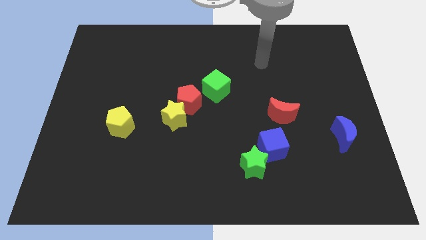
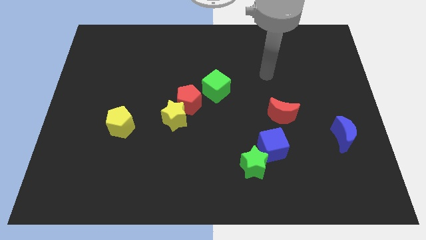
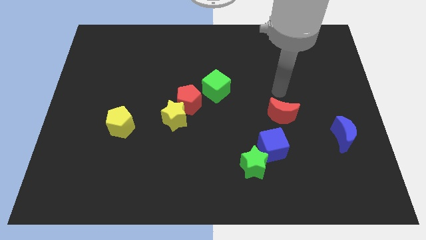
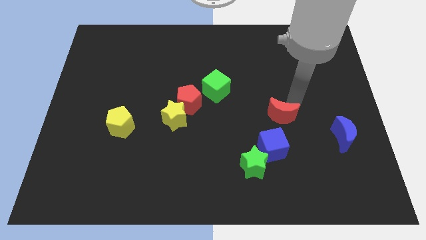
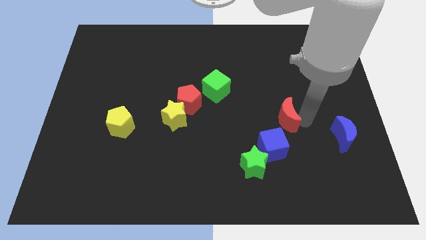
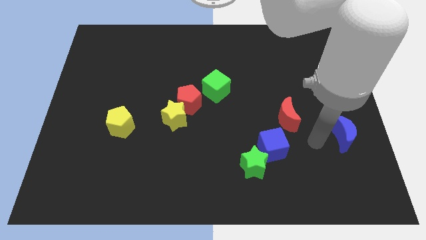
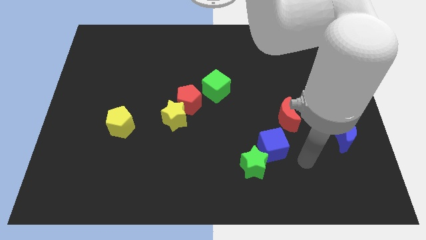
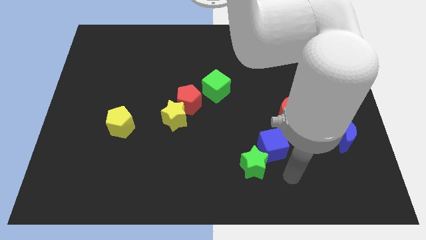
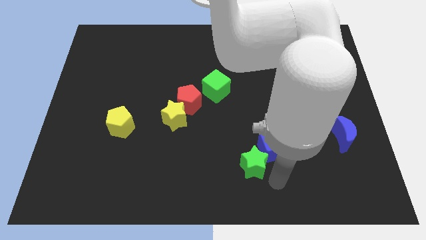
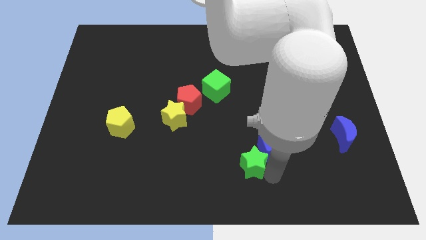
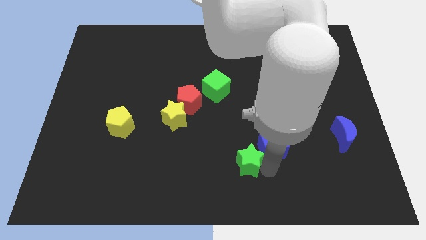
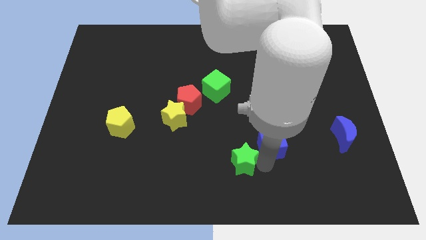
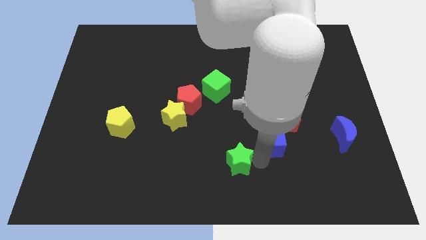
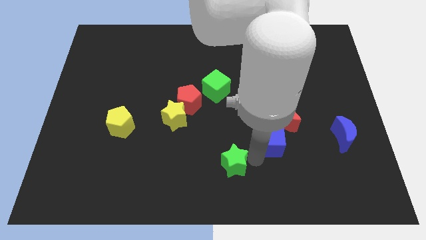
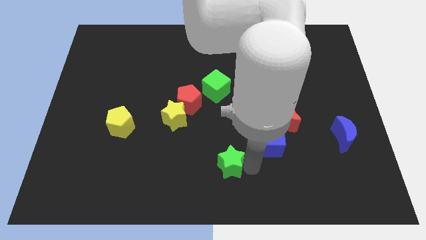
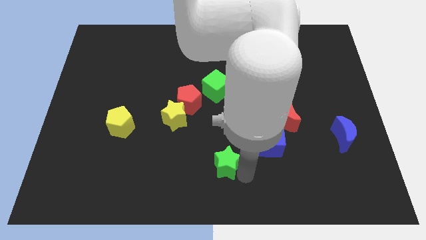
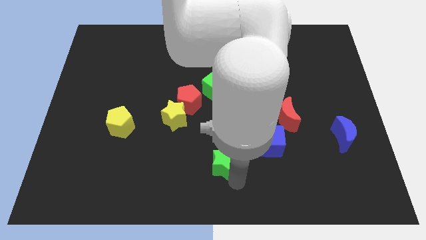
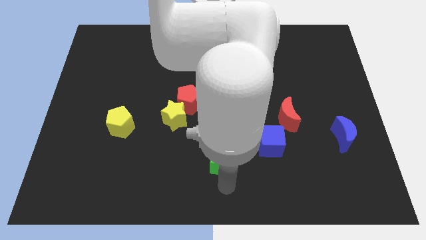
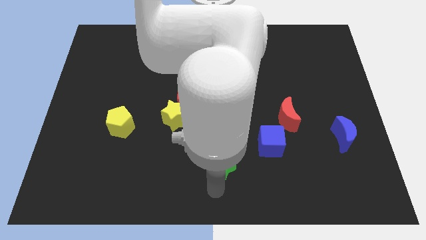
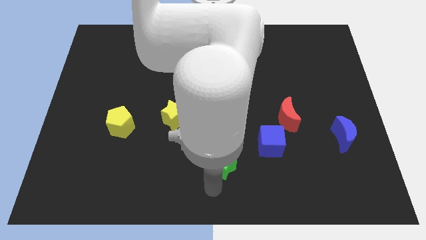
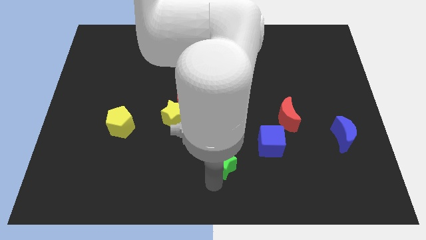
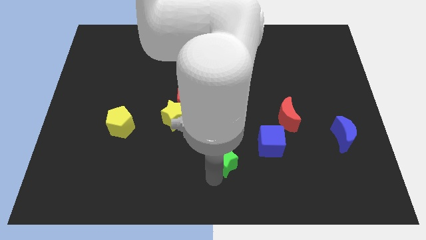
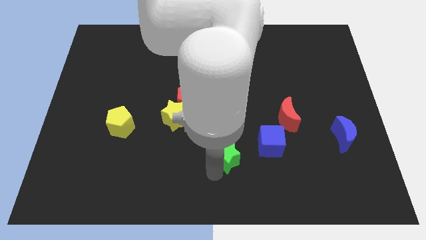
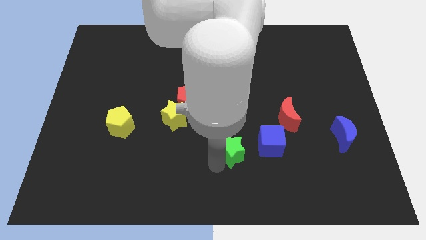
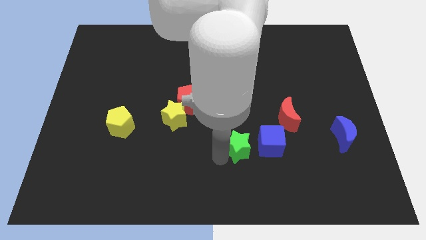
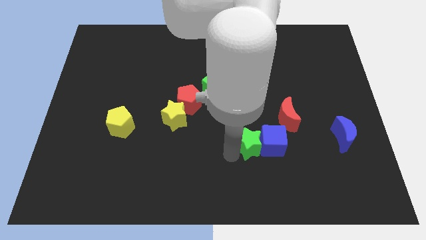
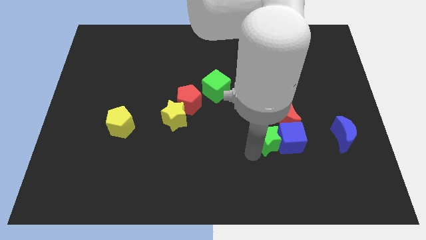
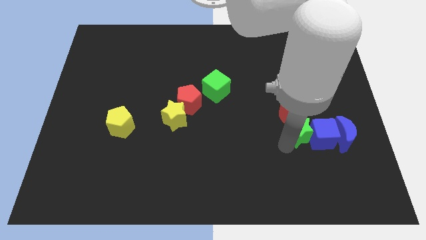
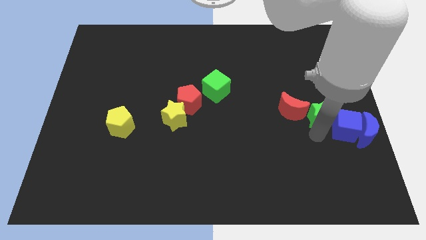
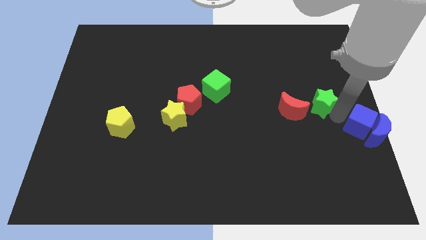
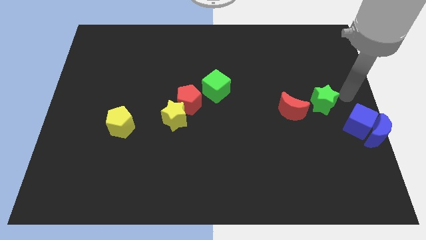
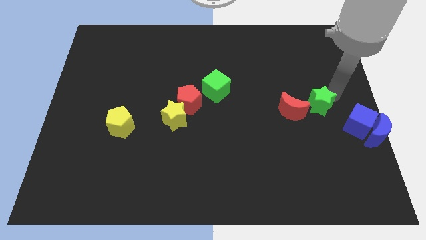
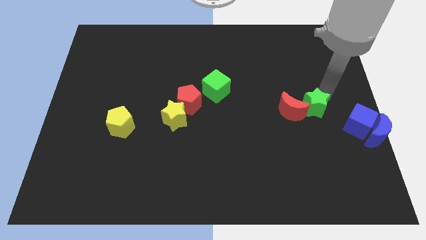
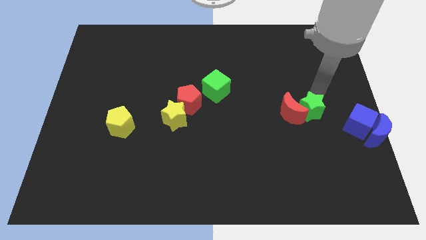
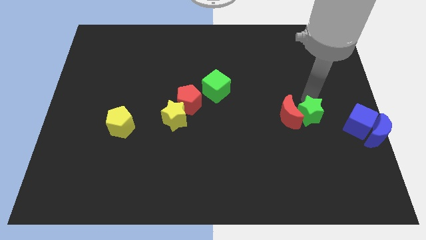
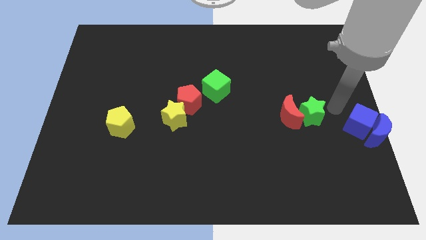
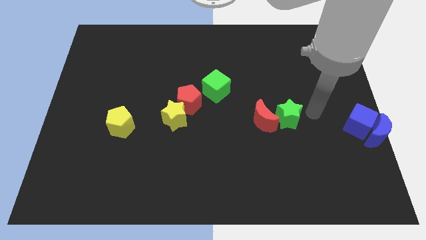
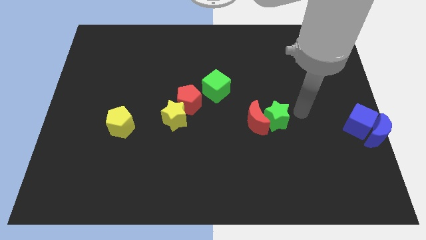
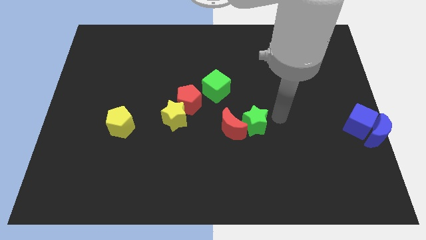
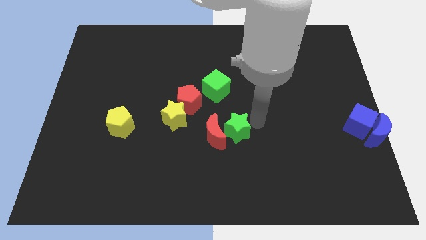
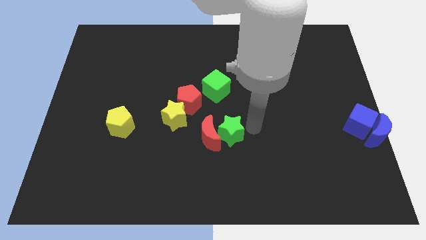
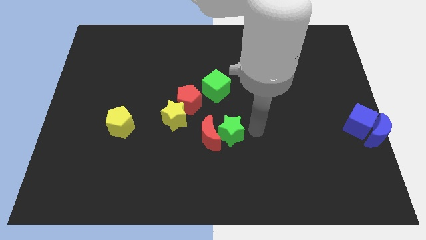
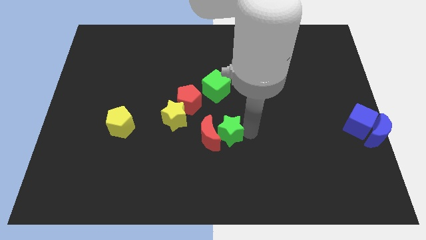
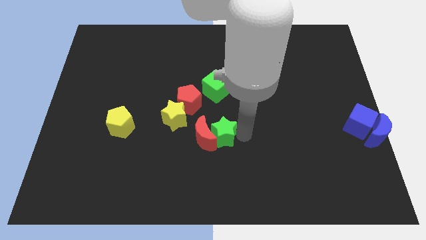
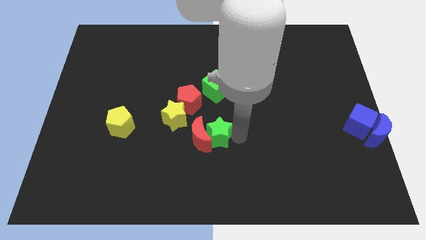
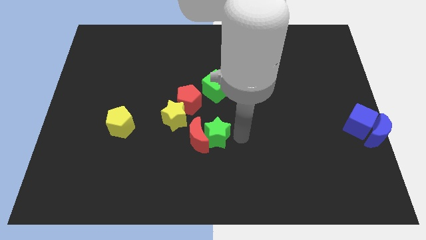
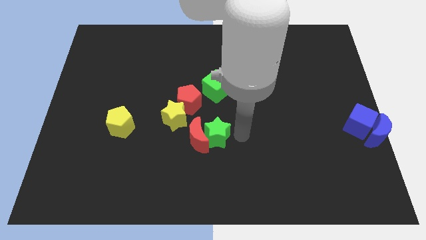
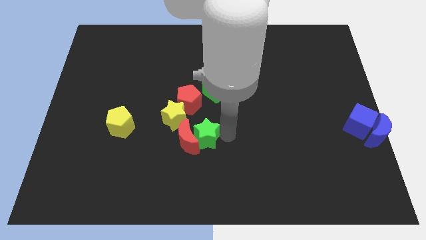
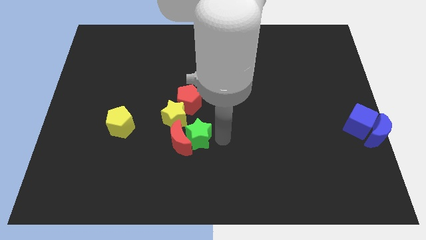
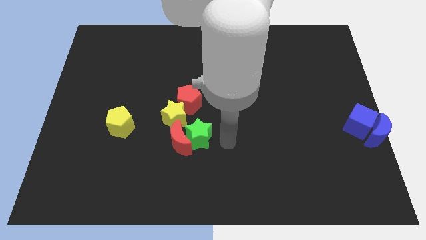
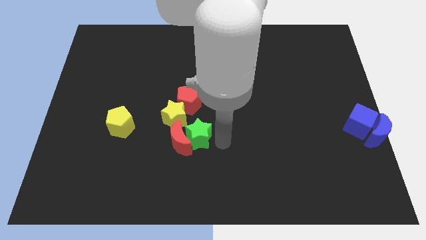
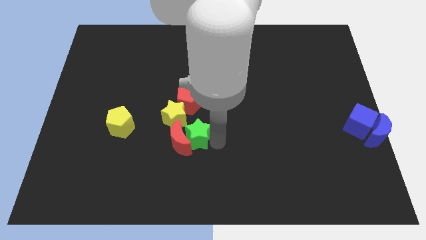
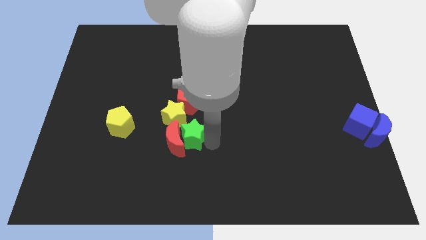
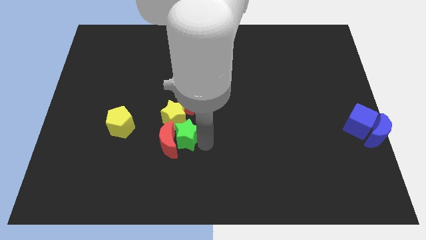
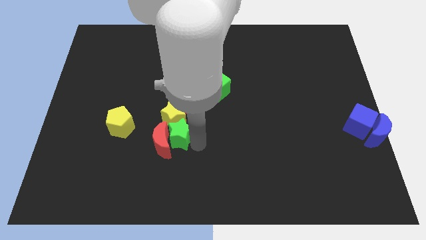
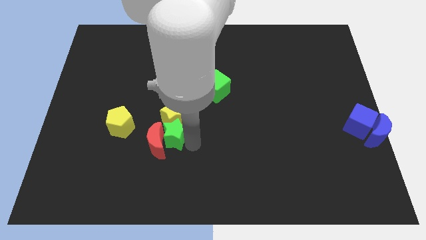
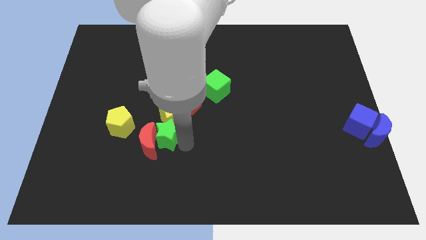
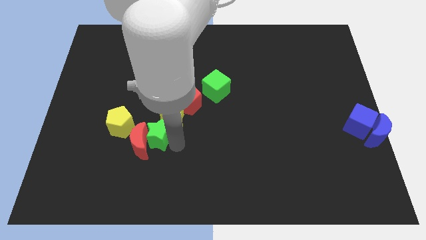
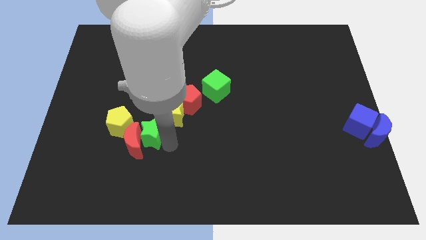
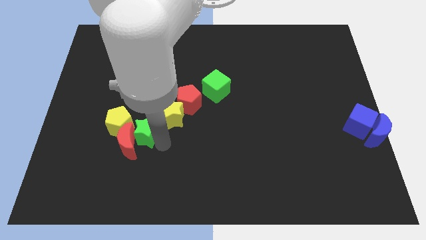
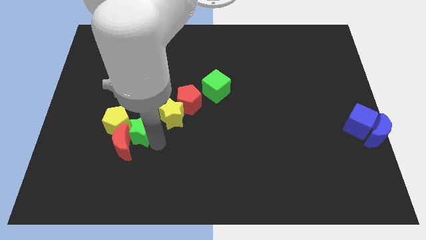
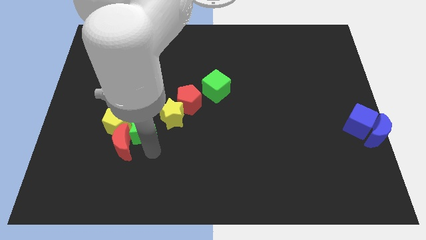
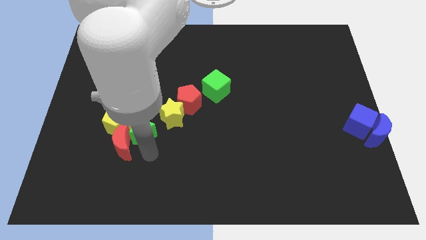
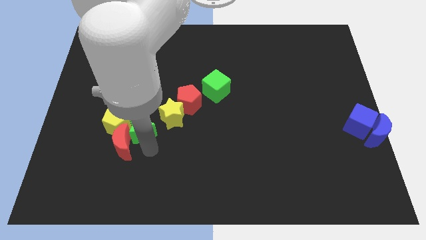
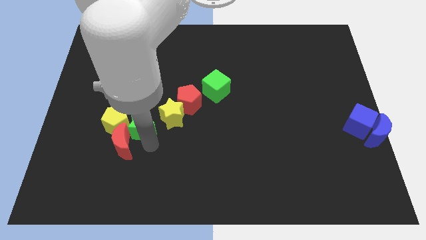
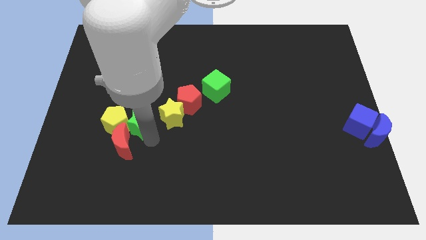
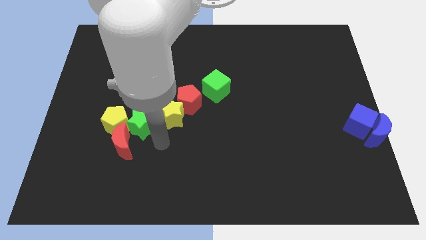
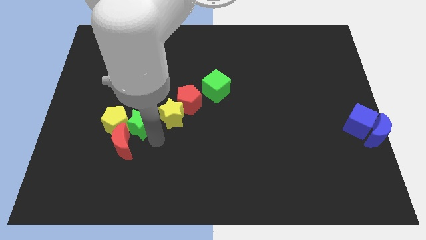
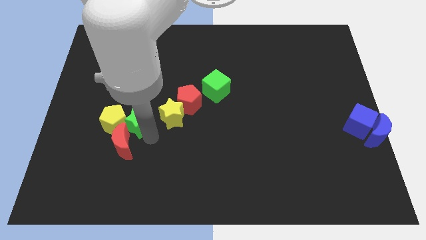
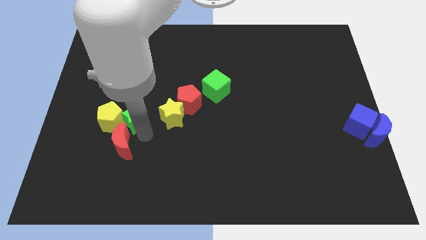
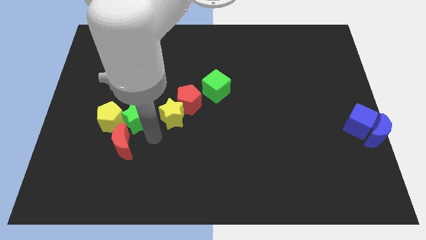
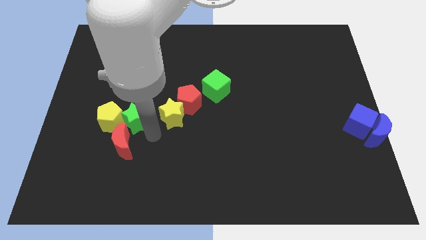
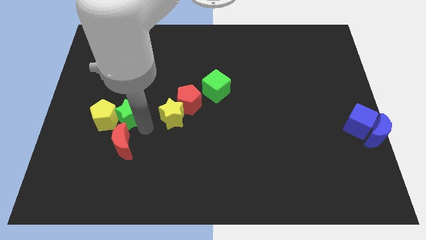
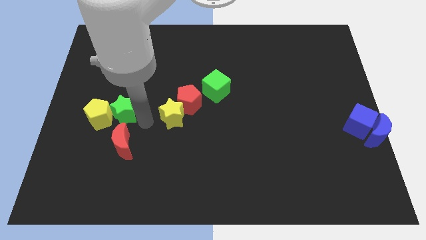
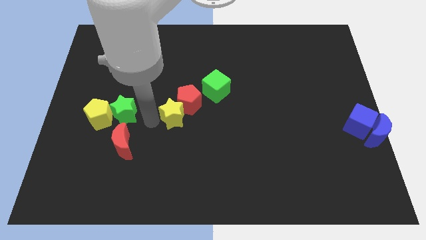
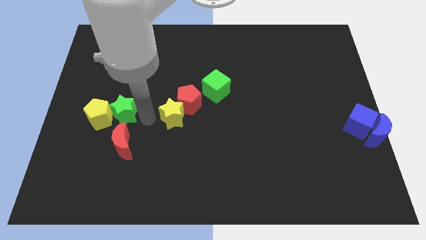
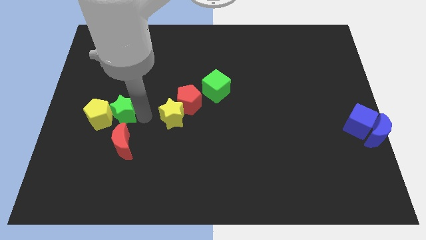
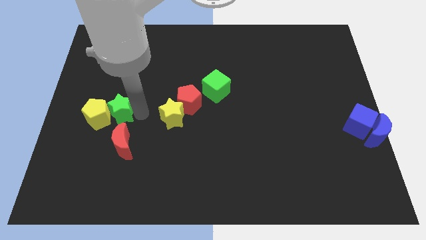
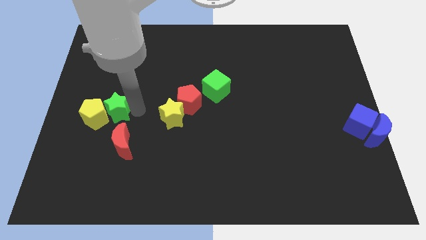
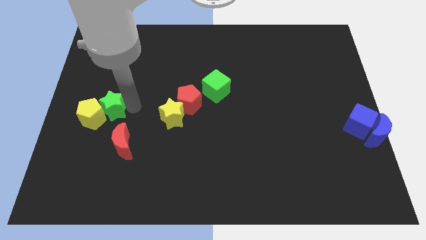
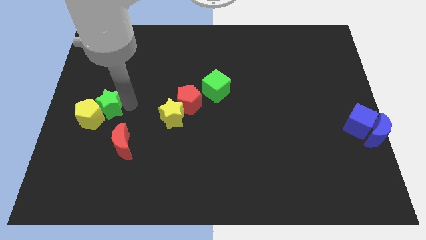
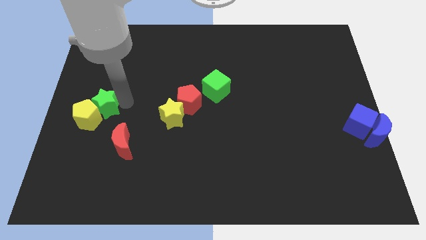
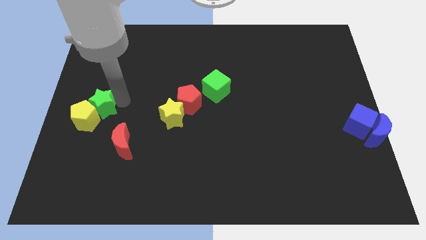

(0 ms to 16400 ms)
put the green star to the left side
